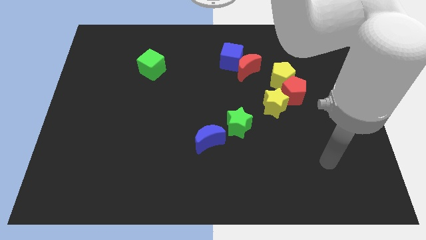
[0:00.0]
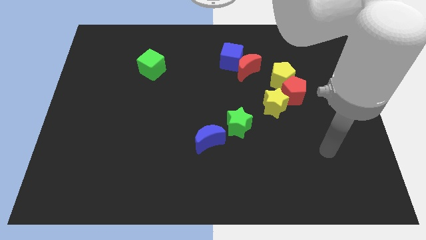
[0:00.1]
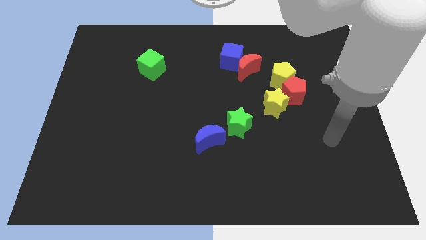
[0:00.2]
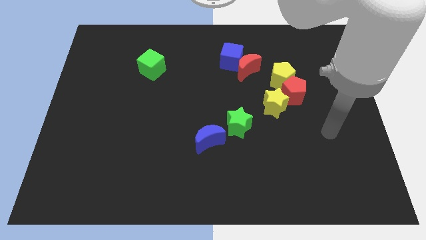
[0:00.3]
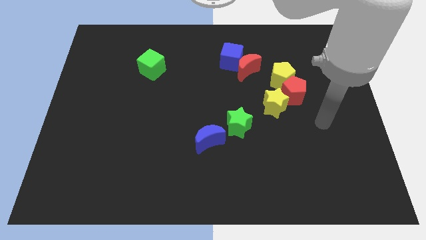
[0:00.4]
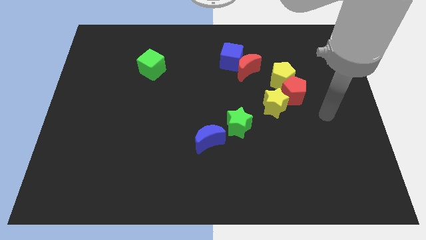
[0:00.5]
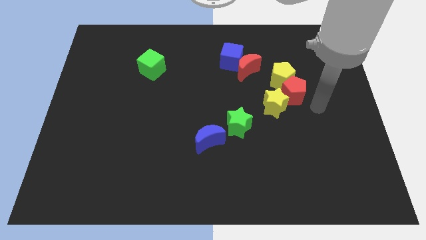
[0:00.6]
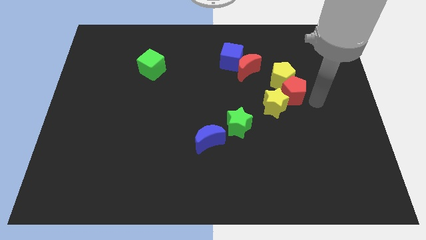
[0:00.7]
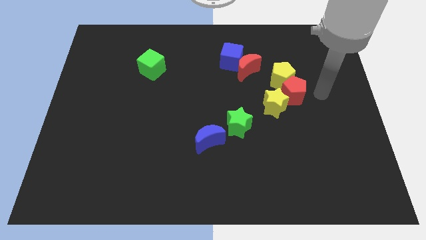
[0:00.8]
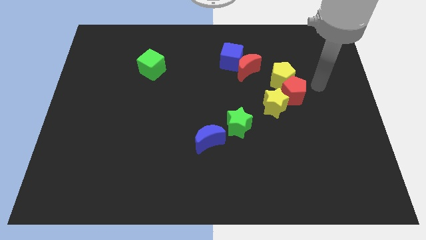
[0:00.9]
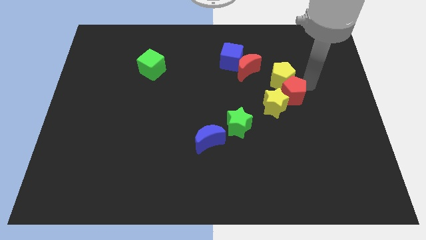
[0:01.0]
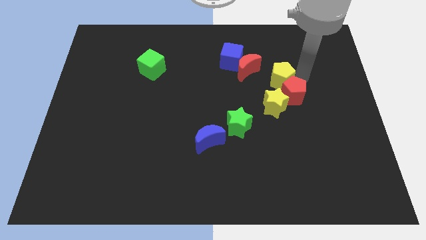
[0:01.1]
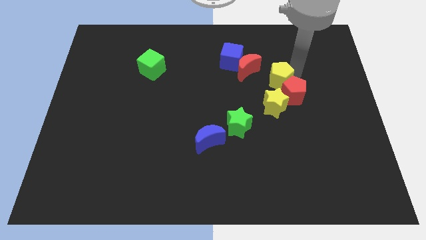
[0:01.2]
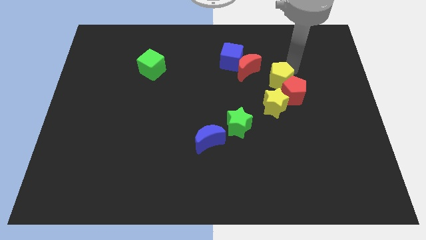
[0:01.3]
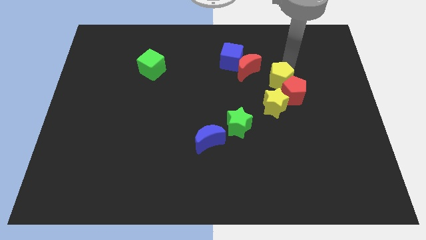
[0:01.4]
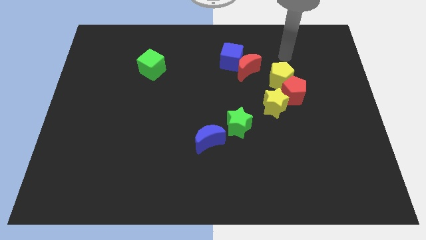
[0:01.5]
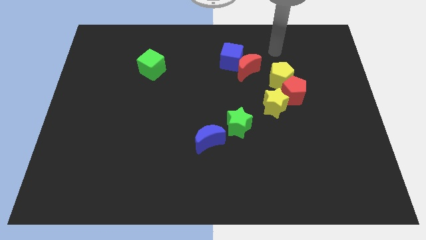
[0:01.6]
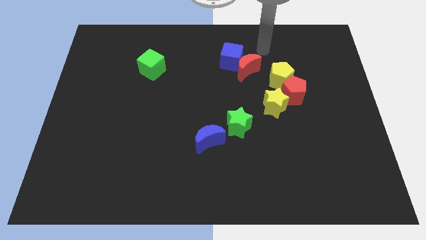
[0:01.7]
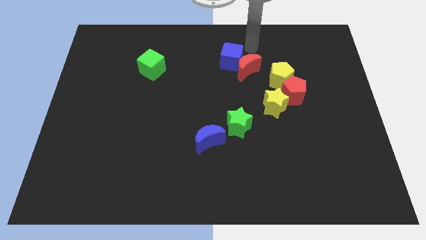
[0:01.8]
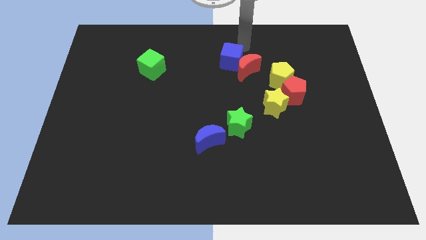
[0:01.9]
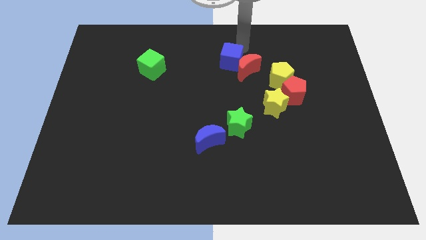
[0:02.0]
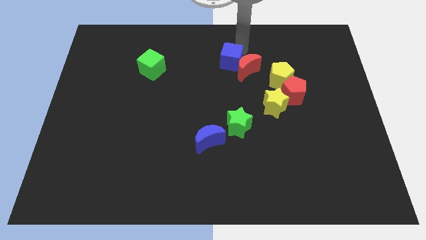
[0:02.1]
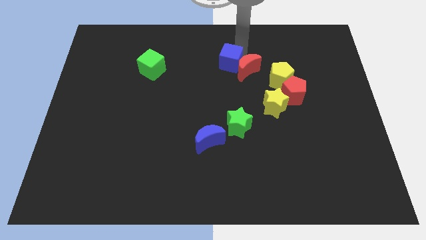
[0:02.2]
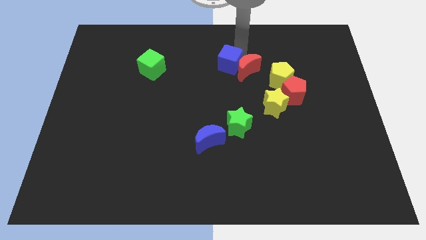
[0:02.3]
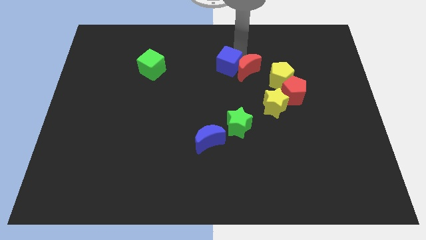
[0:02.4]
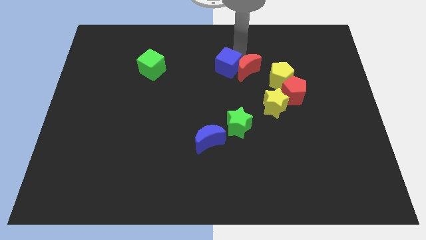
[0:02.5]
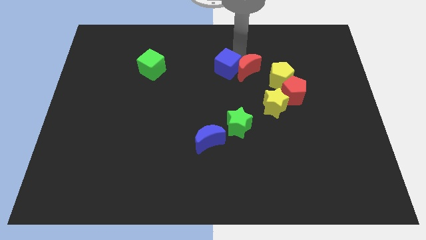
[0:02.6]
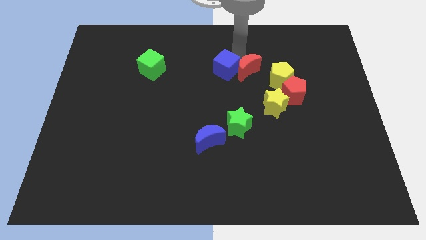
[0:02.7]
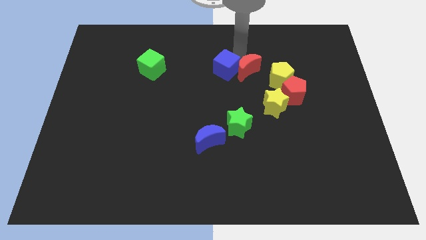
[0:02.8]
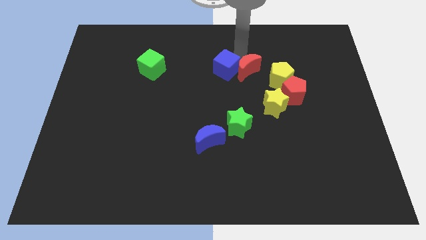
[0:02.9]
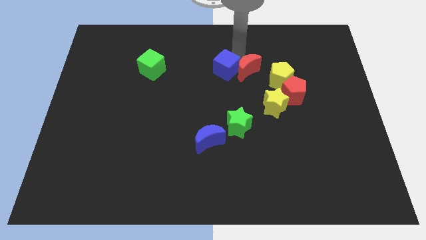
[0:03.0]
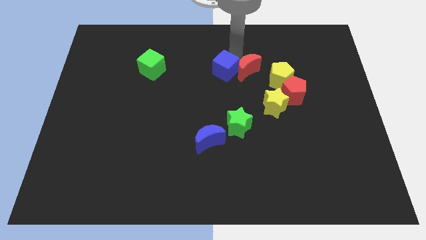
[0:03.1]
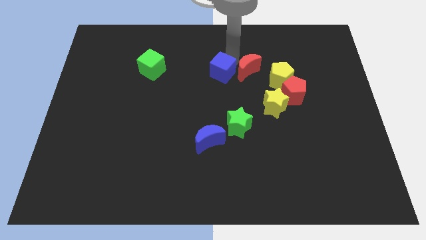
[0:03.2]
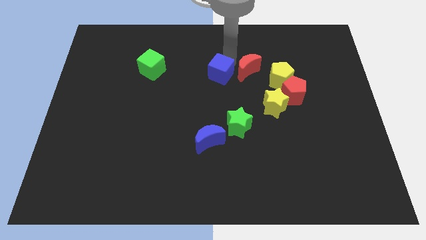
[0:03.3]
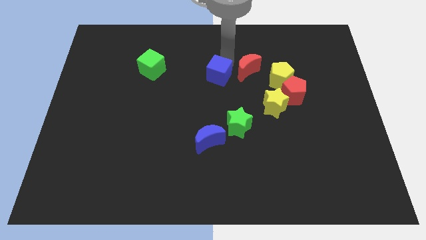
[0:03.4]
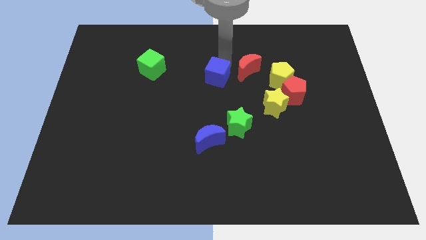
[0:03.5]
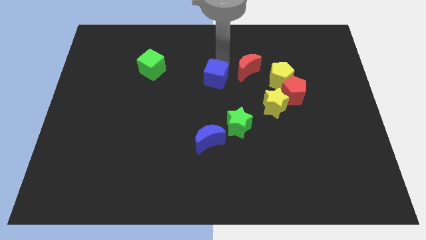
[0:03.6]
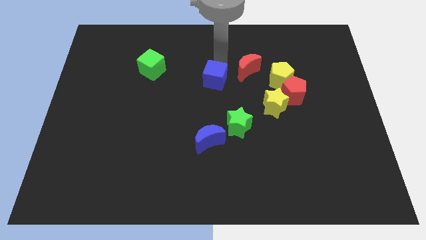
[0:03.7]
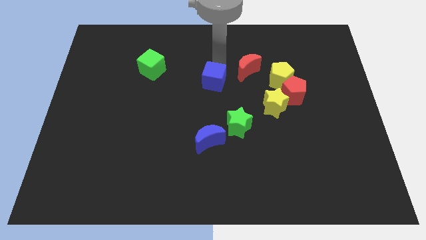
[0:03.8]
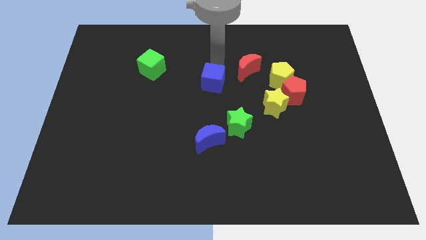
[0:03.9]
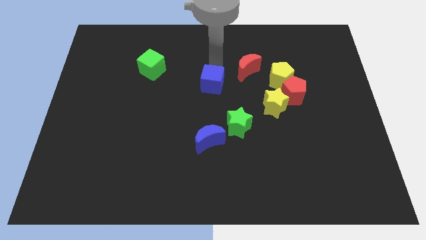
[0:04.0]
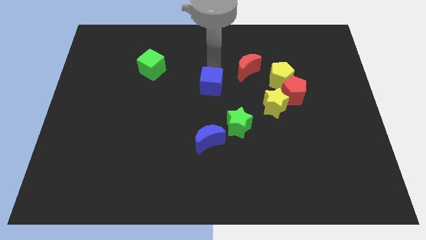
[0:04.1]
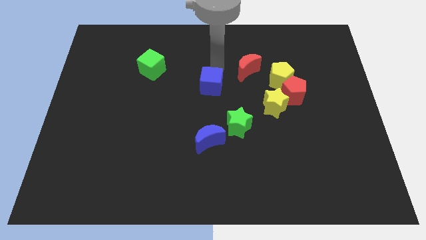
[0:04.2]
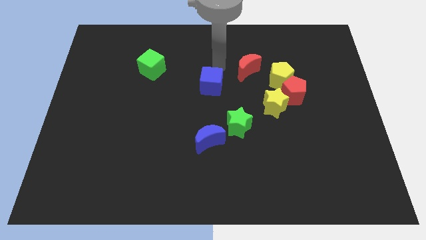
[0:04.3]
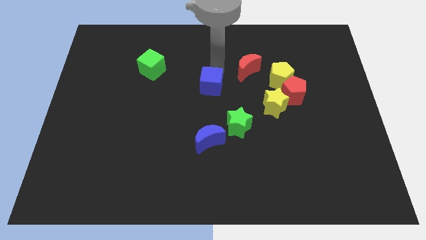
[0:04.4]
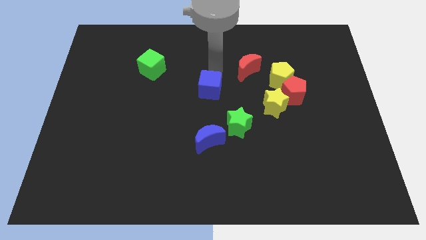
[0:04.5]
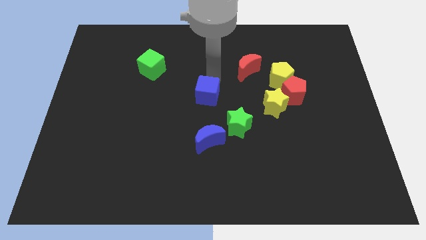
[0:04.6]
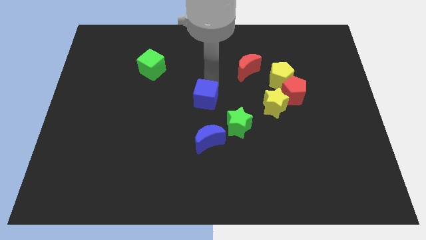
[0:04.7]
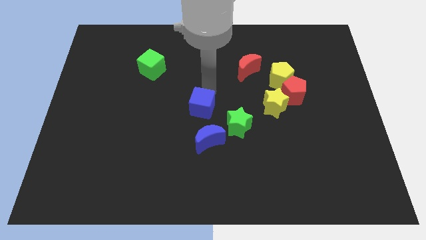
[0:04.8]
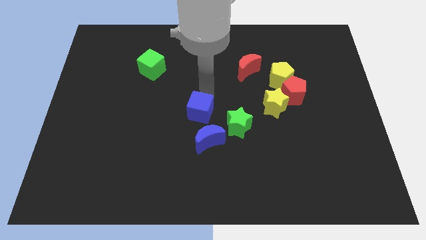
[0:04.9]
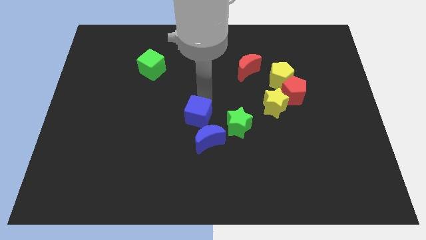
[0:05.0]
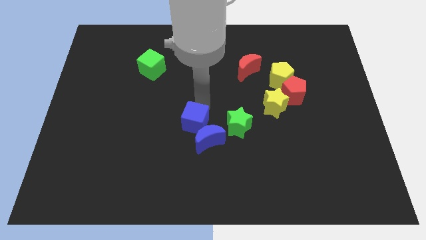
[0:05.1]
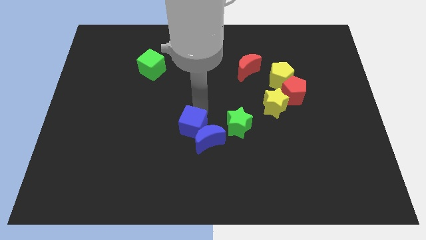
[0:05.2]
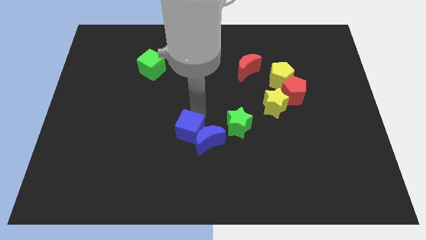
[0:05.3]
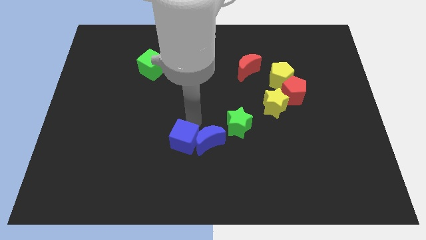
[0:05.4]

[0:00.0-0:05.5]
slide the blue cube diagonally down and to the left of the blue moon

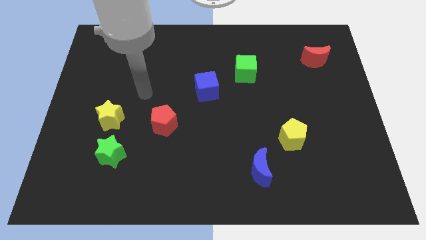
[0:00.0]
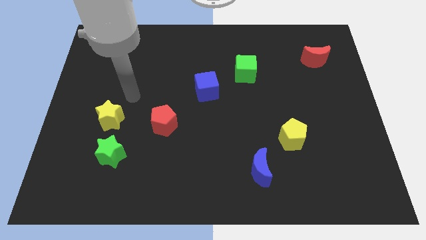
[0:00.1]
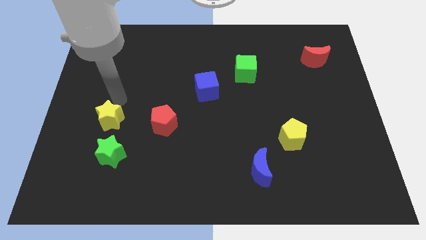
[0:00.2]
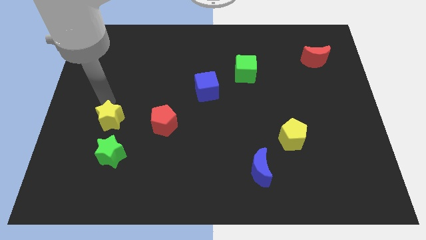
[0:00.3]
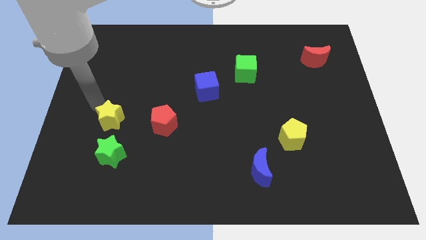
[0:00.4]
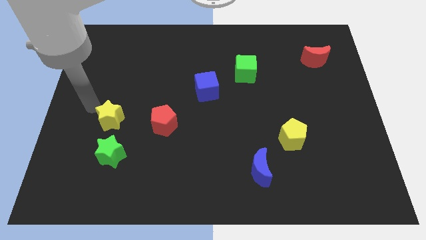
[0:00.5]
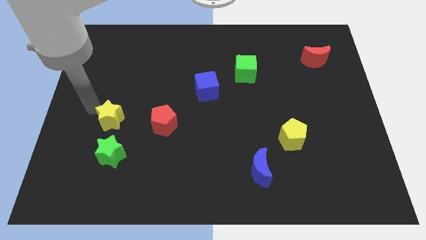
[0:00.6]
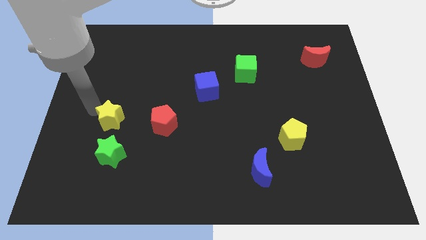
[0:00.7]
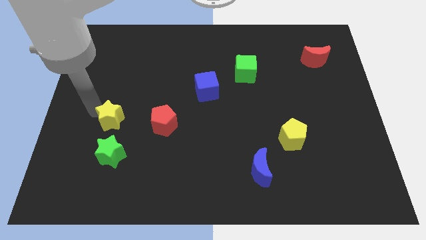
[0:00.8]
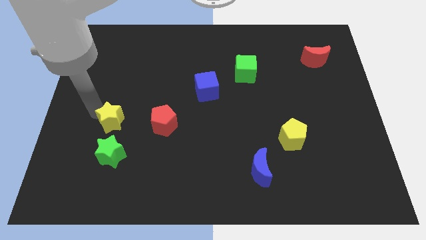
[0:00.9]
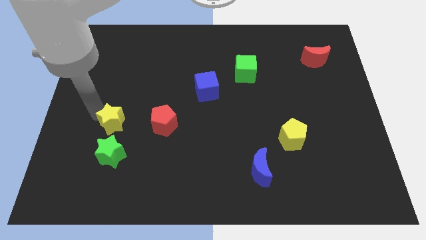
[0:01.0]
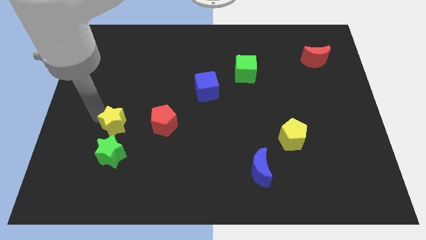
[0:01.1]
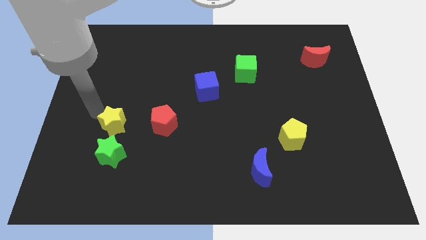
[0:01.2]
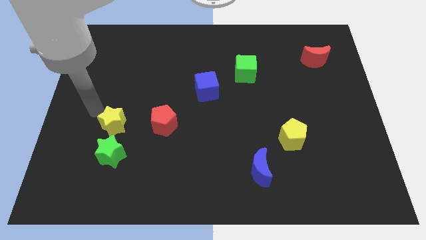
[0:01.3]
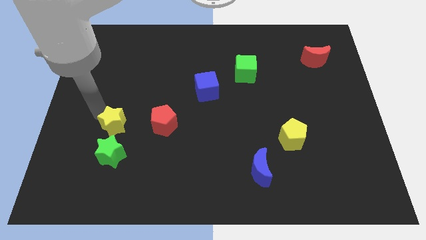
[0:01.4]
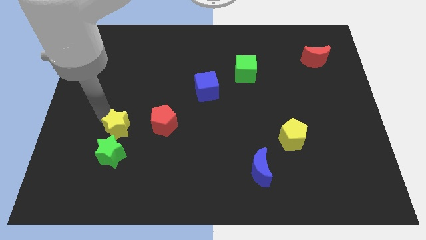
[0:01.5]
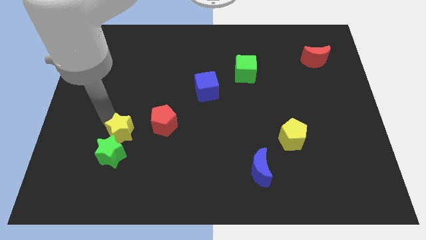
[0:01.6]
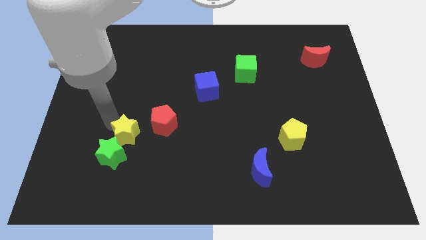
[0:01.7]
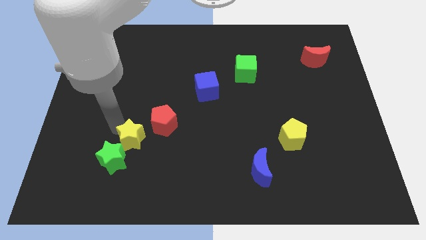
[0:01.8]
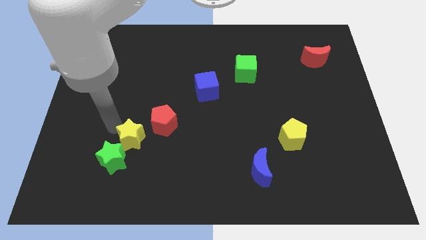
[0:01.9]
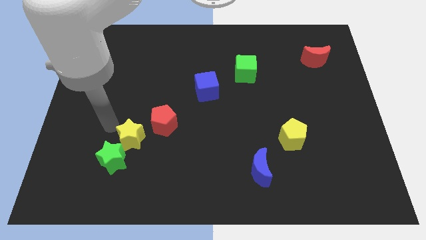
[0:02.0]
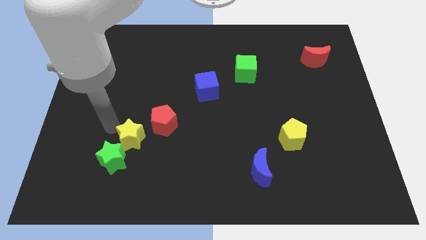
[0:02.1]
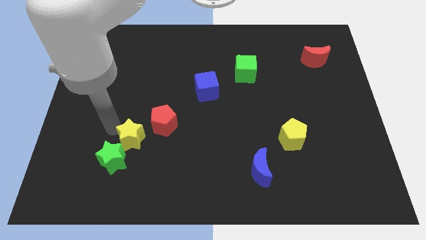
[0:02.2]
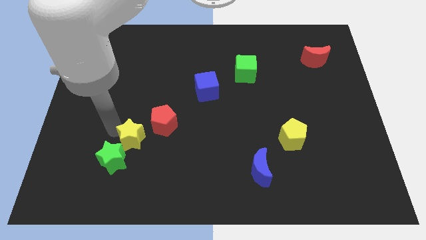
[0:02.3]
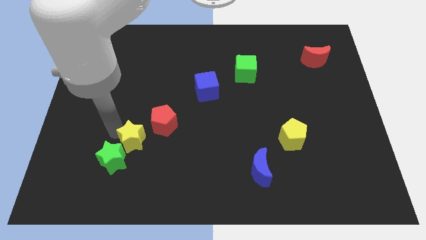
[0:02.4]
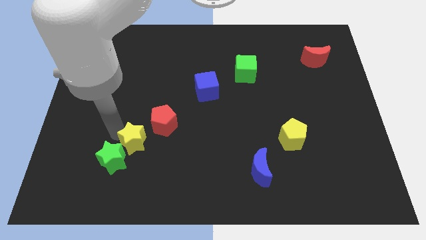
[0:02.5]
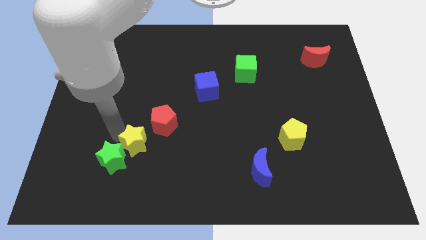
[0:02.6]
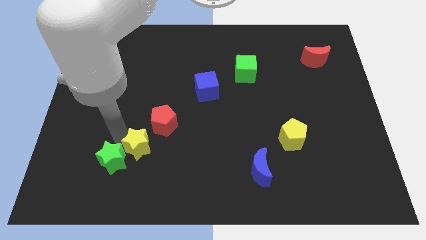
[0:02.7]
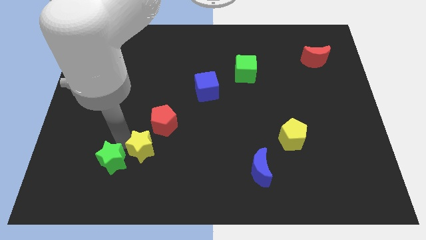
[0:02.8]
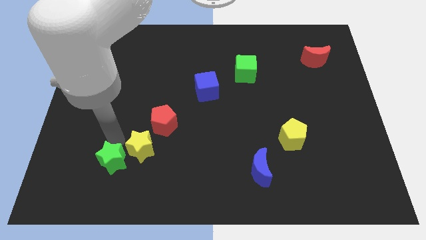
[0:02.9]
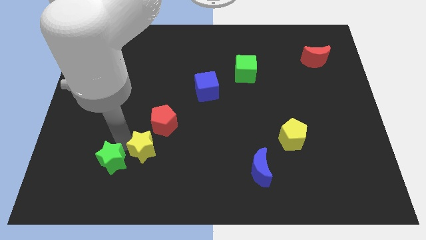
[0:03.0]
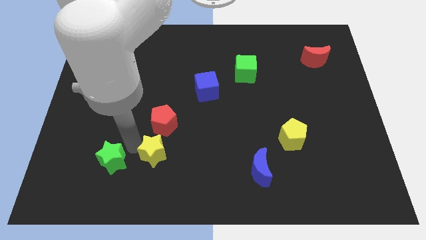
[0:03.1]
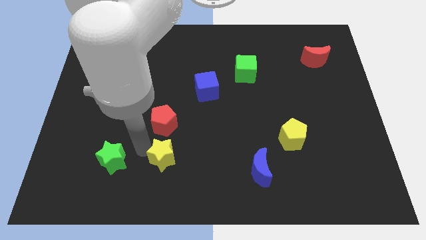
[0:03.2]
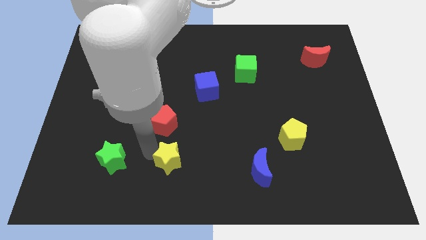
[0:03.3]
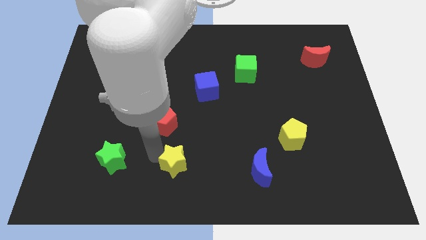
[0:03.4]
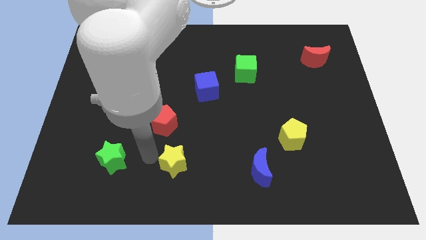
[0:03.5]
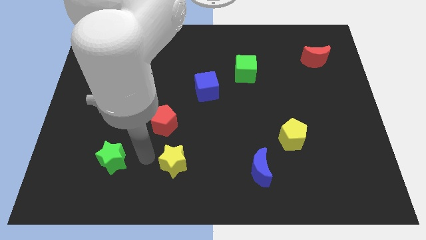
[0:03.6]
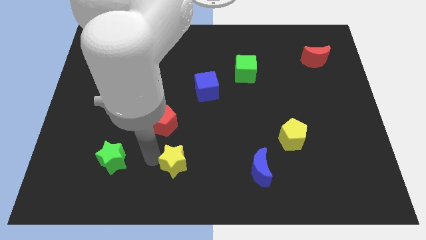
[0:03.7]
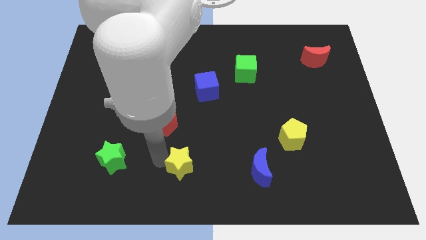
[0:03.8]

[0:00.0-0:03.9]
slide the yellow star left of the blue moon
